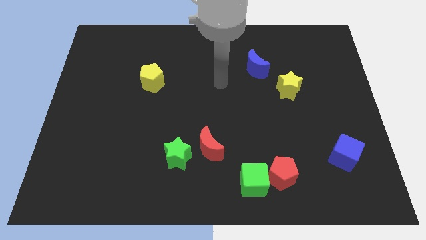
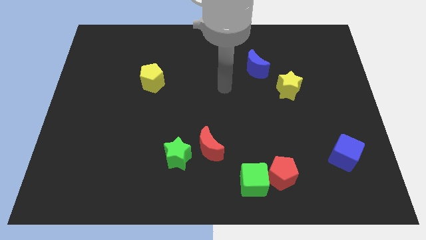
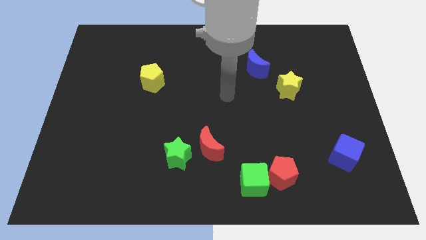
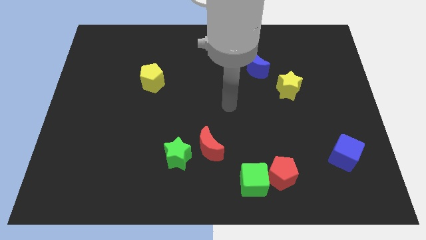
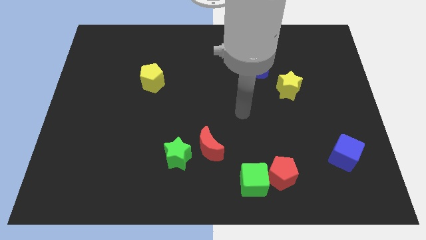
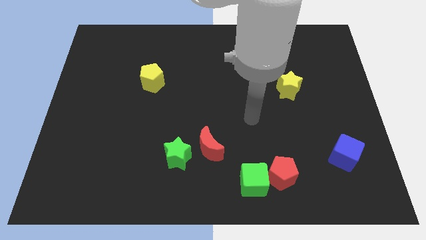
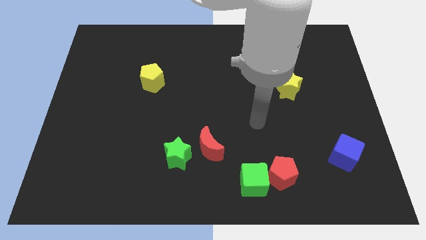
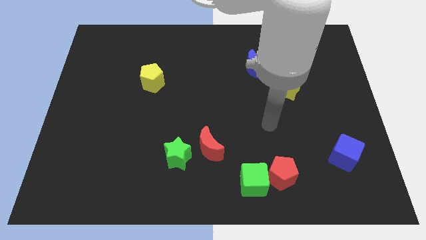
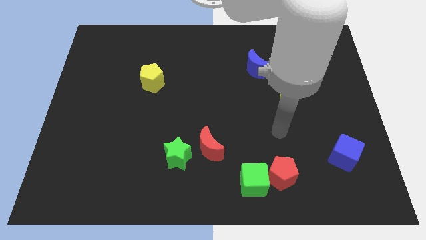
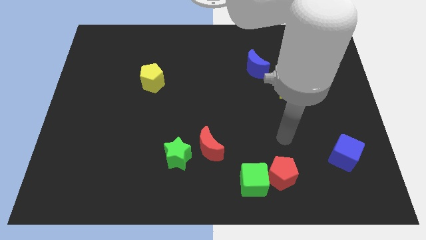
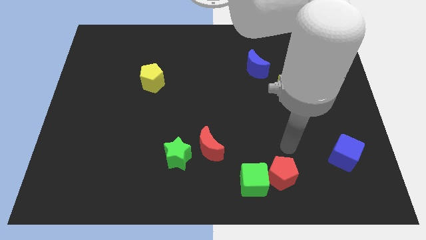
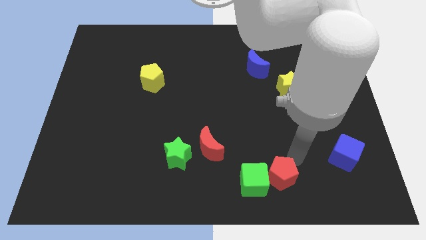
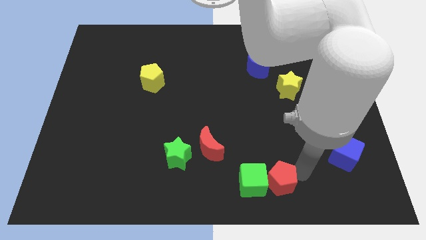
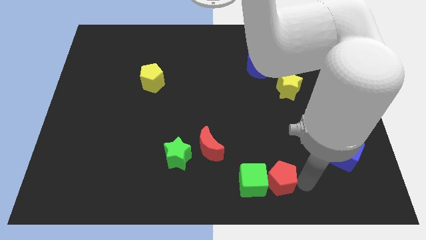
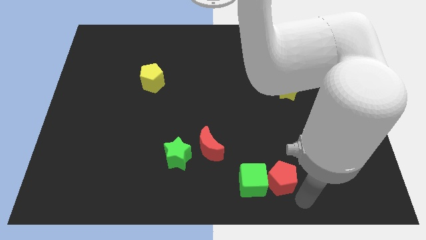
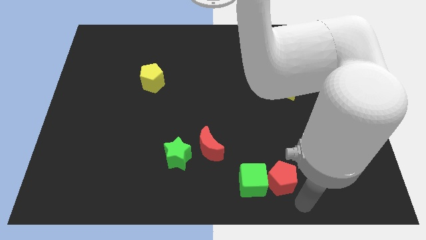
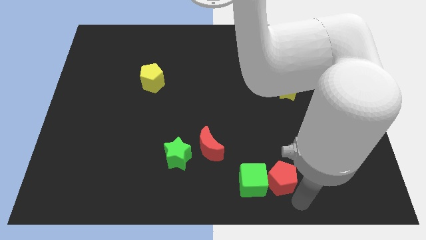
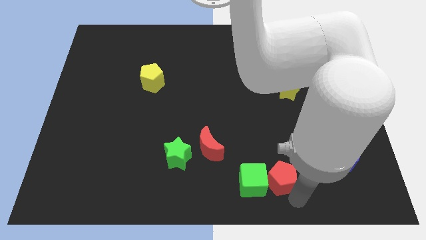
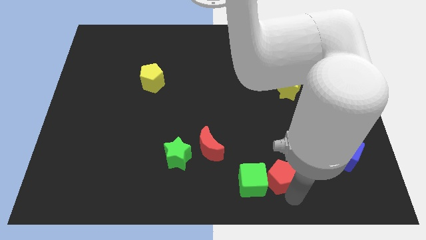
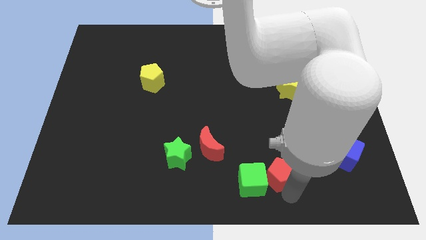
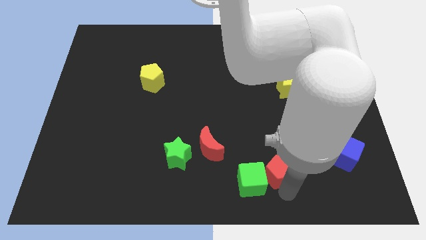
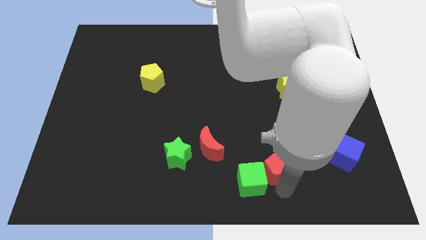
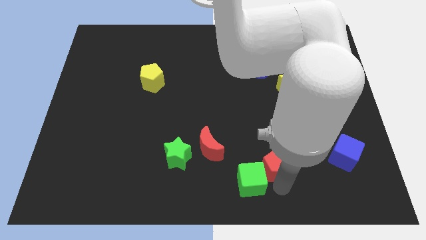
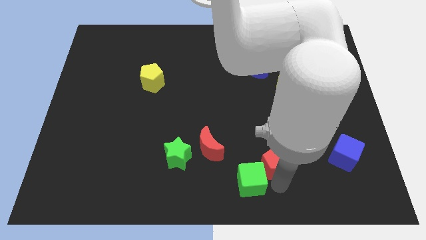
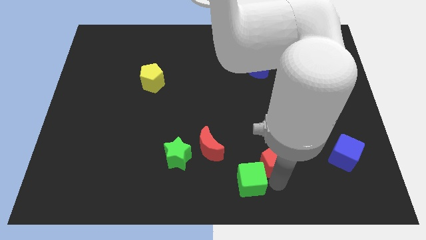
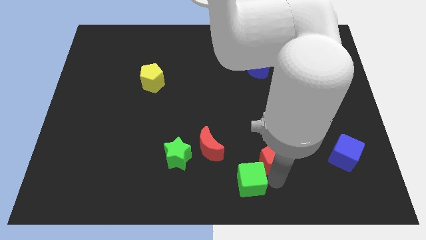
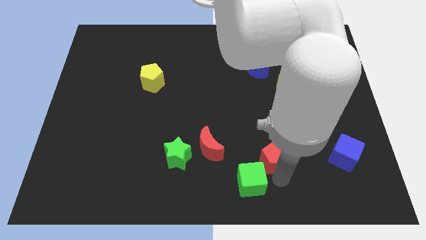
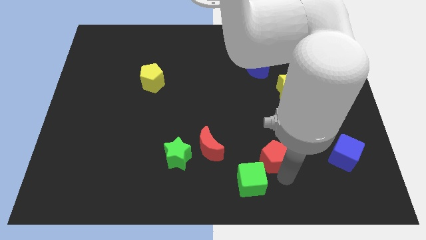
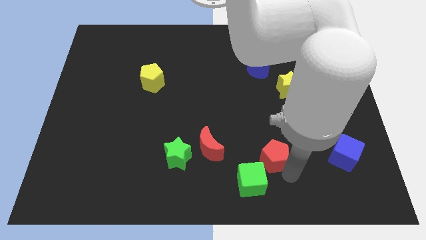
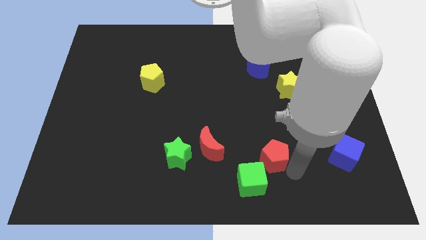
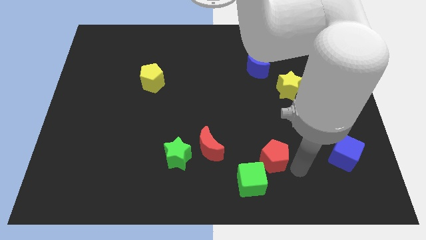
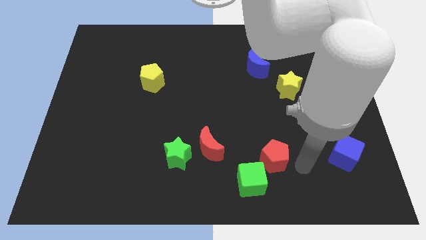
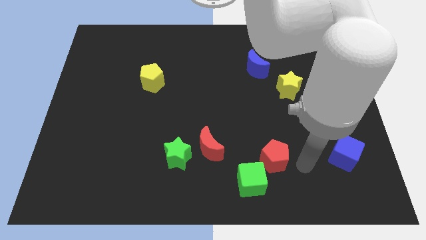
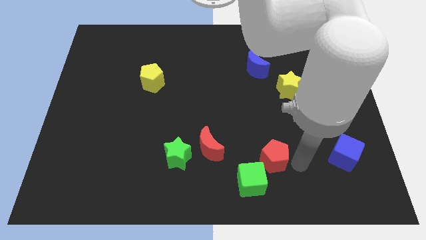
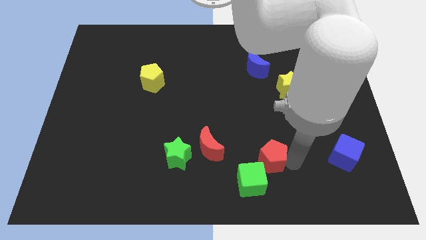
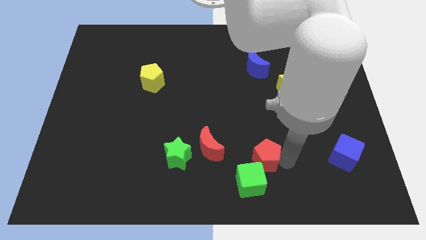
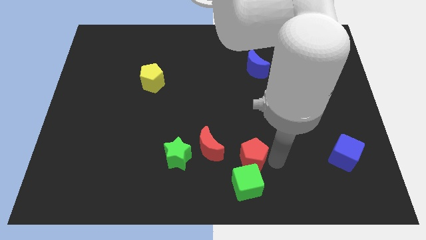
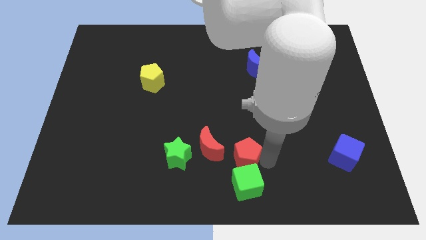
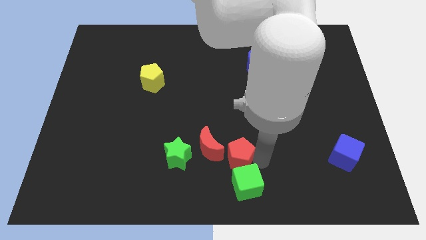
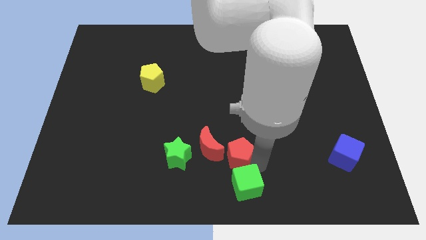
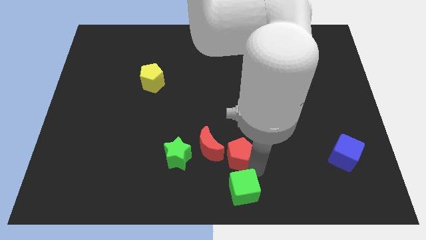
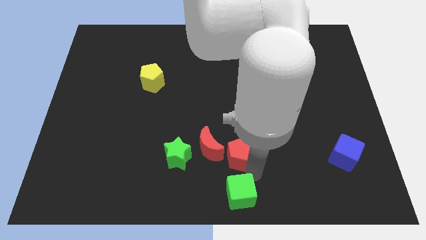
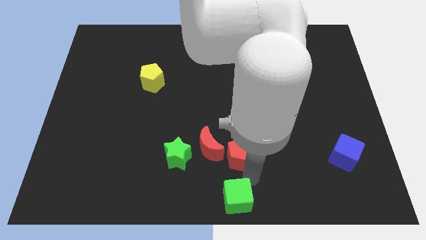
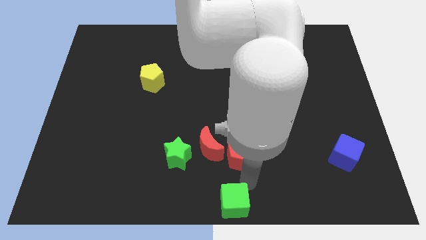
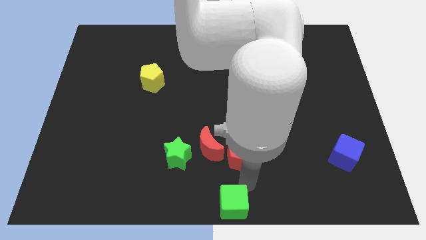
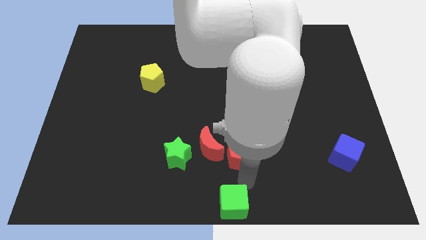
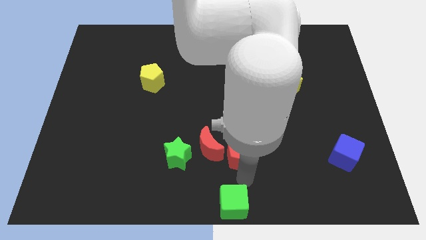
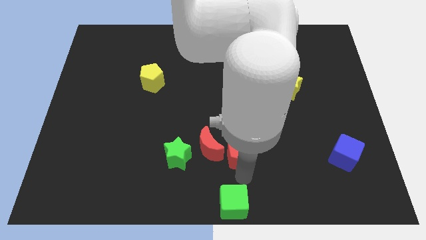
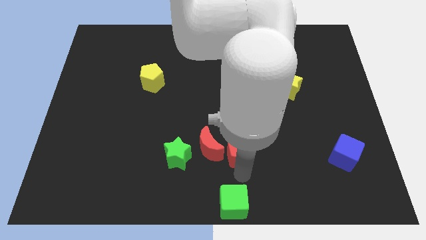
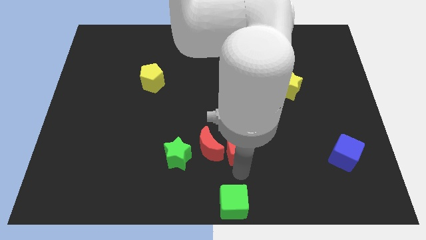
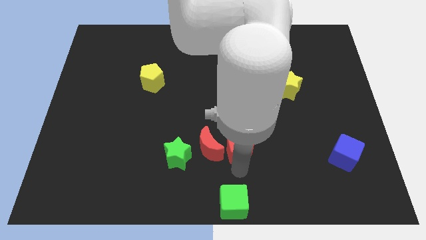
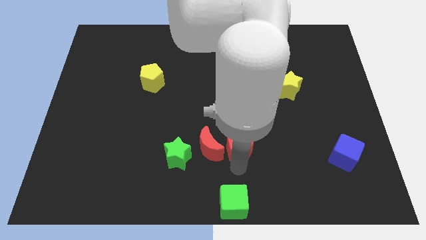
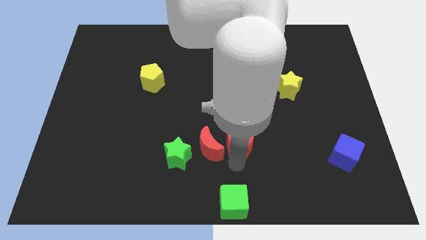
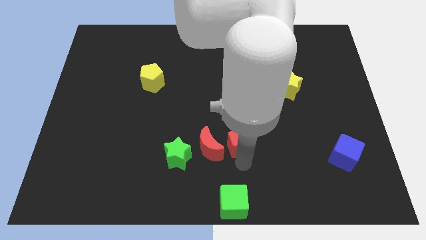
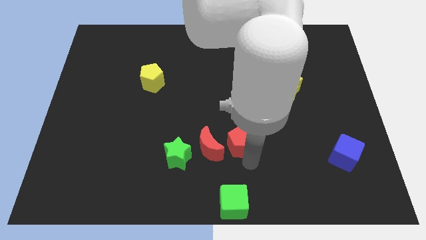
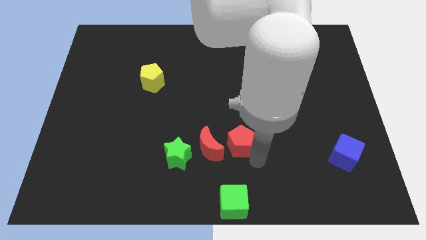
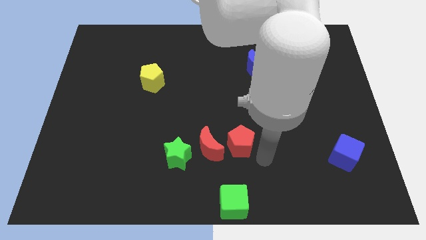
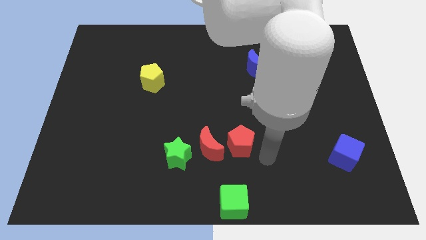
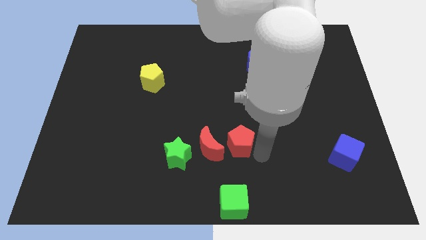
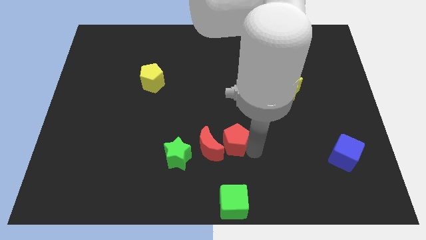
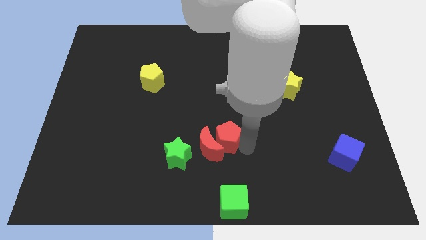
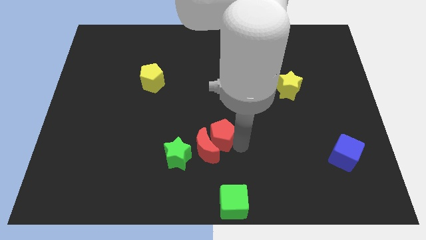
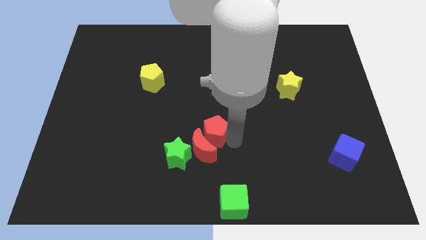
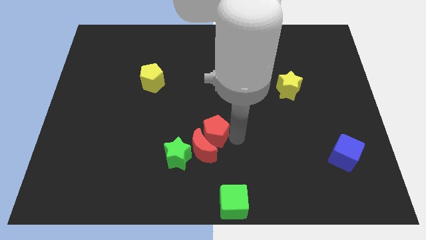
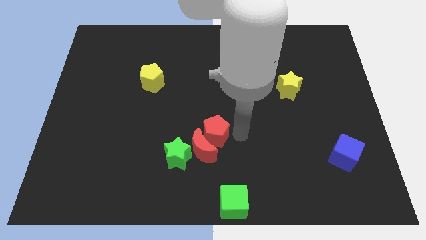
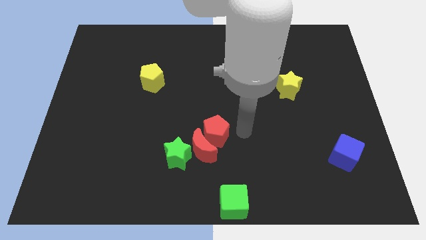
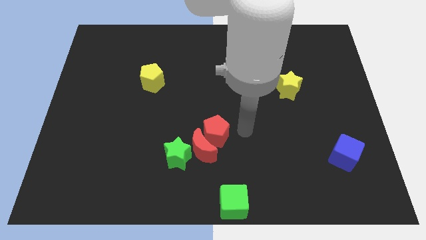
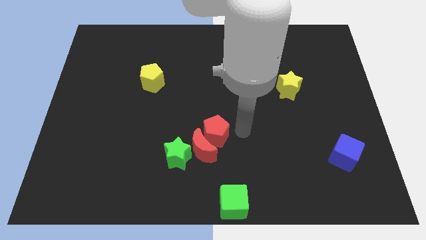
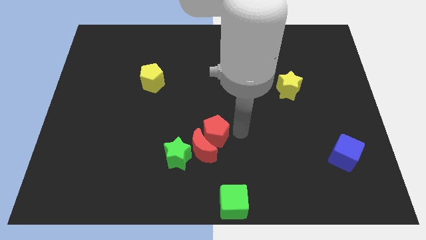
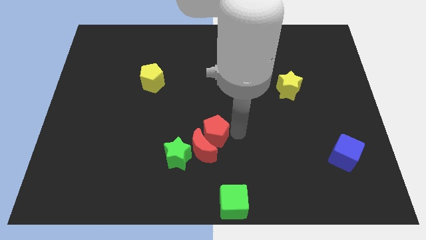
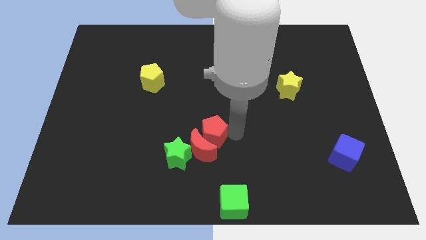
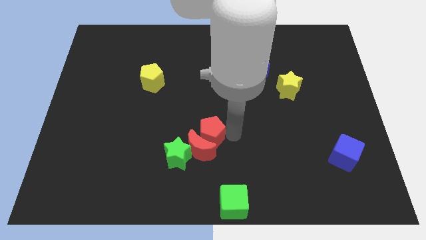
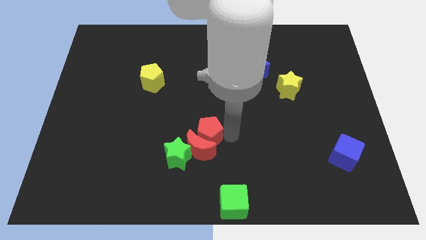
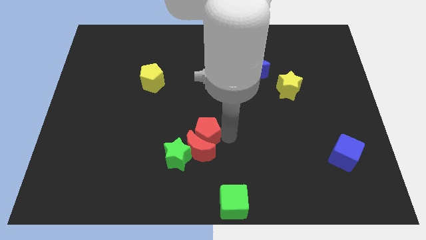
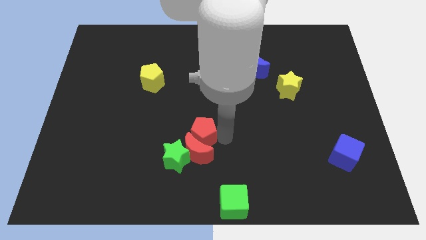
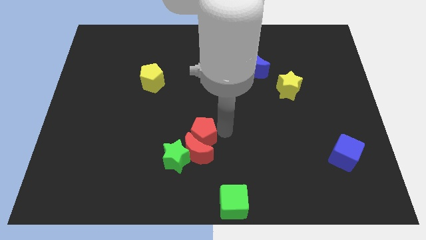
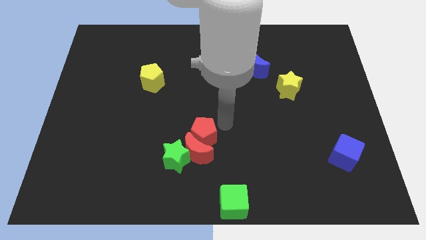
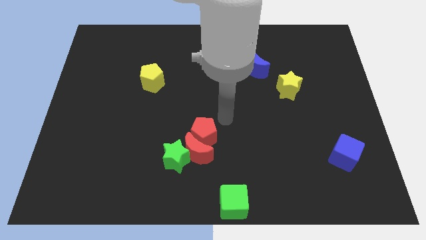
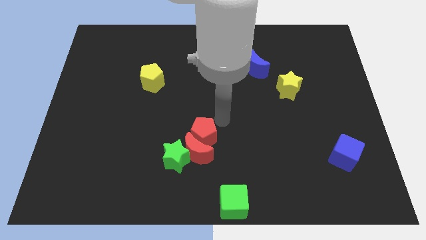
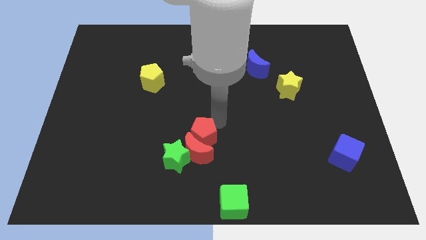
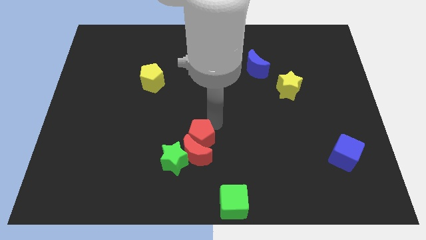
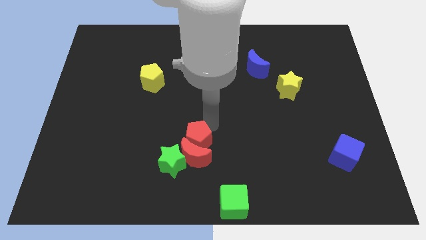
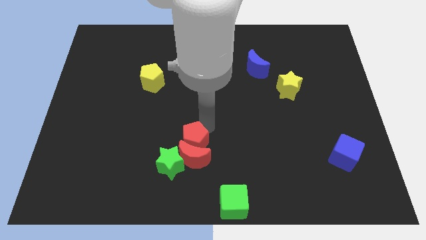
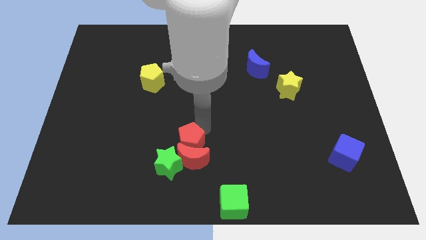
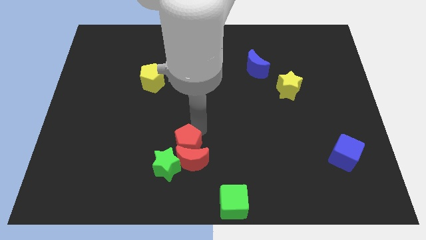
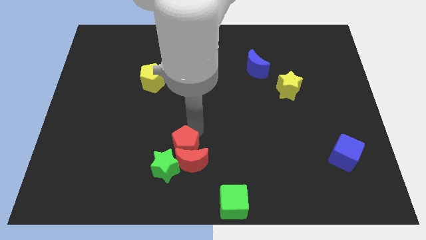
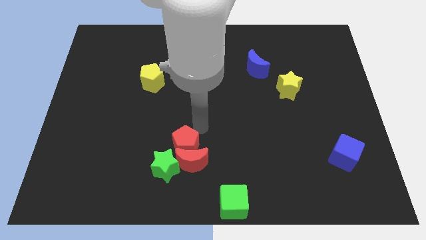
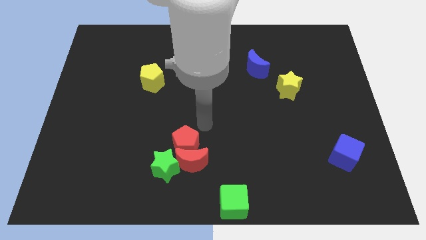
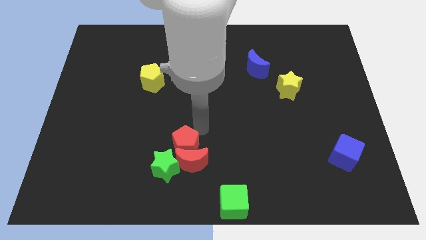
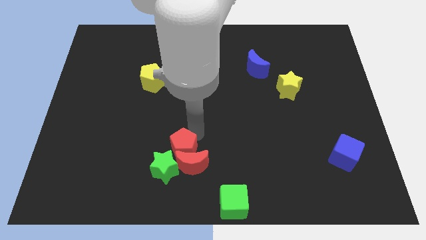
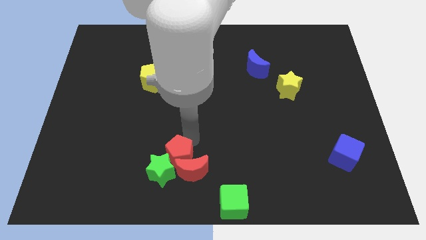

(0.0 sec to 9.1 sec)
move the red pentagon towards the green star
